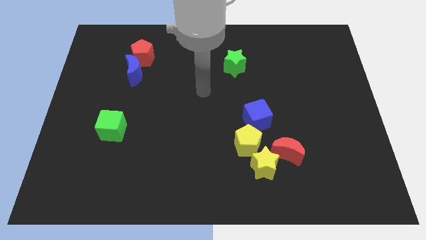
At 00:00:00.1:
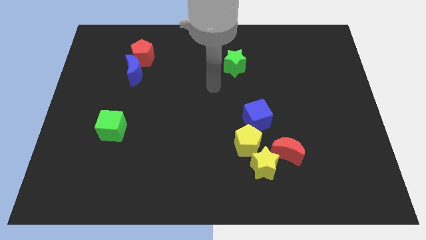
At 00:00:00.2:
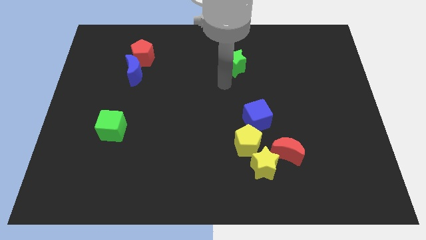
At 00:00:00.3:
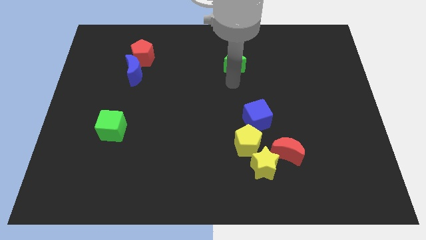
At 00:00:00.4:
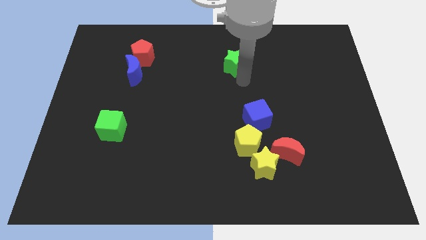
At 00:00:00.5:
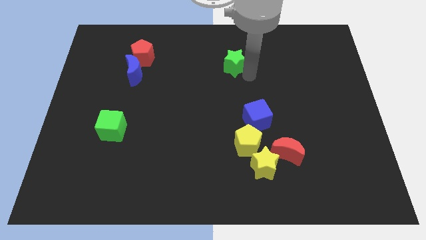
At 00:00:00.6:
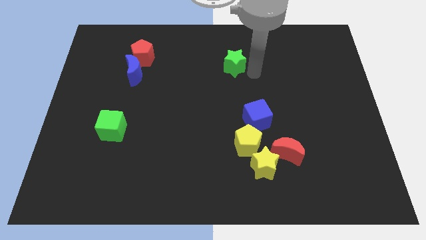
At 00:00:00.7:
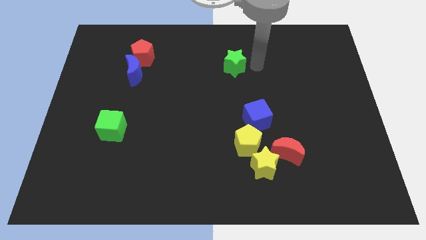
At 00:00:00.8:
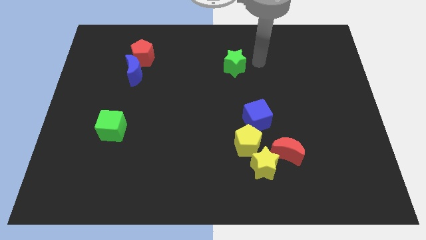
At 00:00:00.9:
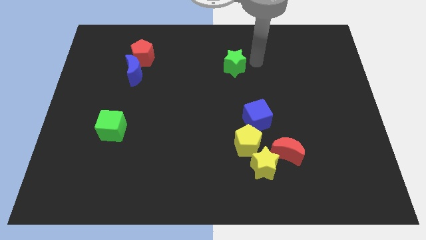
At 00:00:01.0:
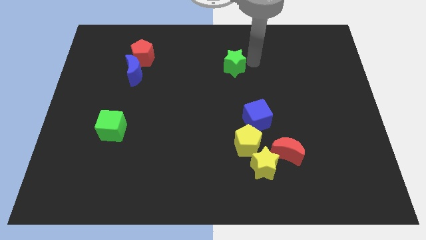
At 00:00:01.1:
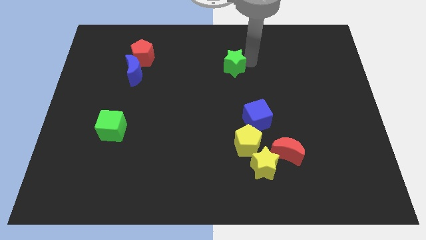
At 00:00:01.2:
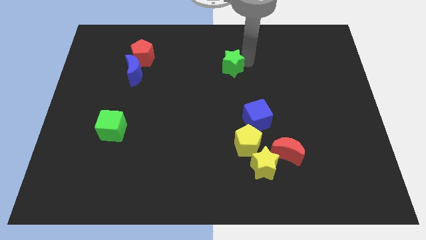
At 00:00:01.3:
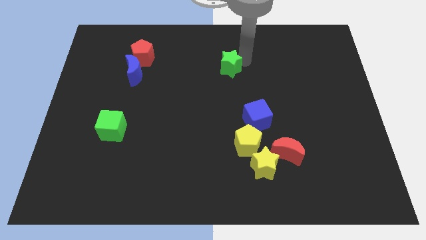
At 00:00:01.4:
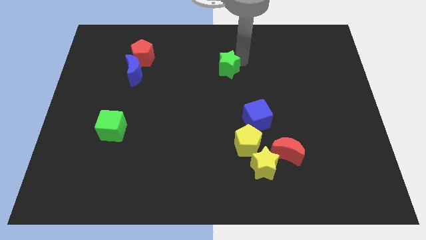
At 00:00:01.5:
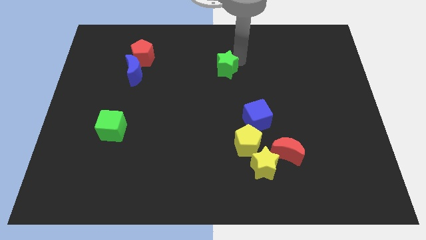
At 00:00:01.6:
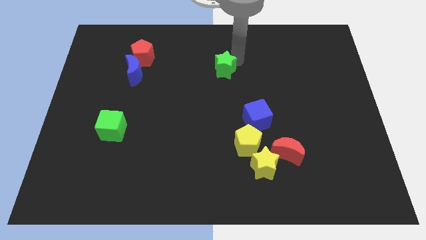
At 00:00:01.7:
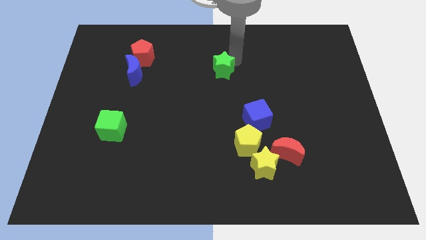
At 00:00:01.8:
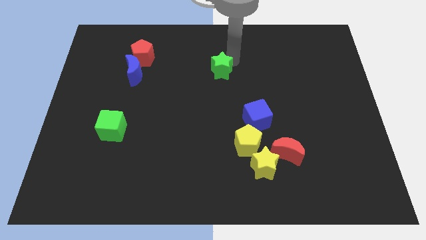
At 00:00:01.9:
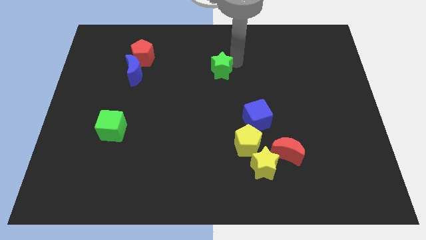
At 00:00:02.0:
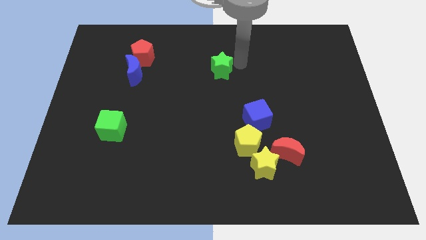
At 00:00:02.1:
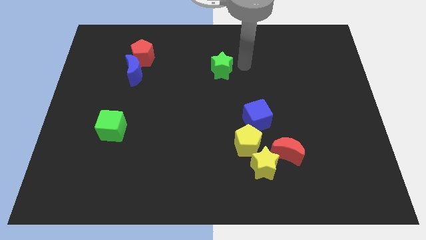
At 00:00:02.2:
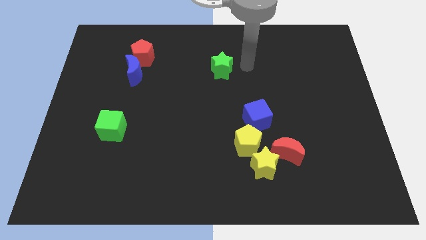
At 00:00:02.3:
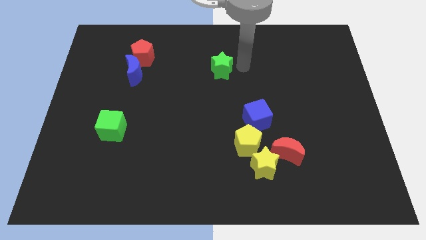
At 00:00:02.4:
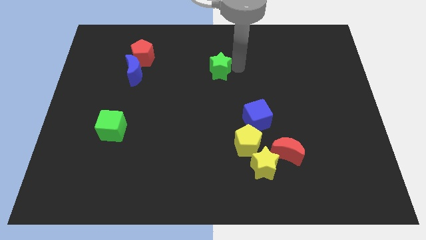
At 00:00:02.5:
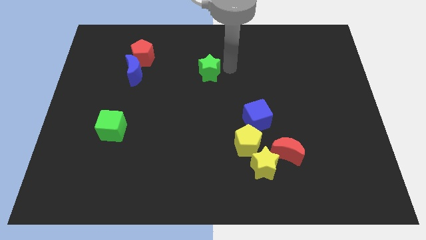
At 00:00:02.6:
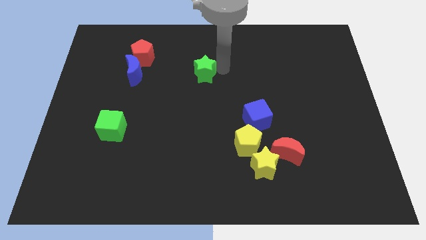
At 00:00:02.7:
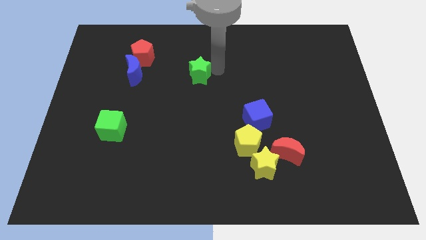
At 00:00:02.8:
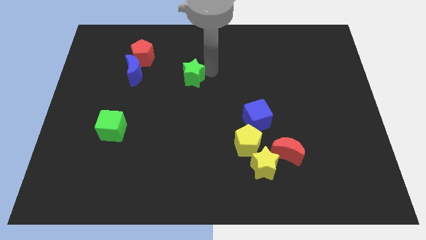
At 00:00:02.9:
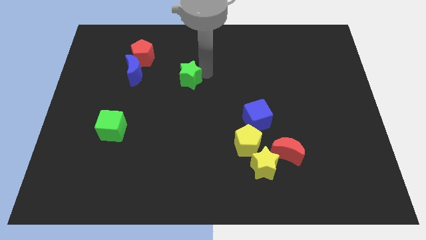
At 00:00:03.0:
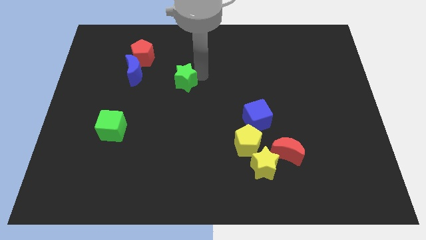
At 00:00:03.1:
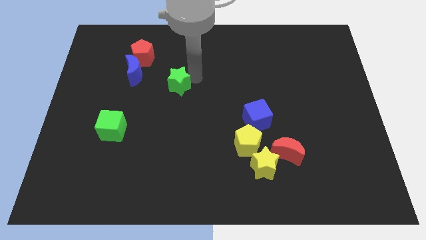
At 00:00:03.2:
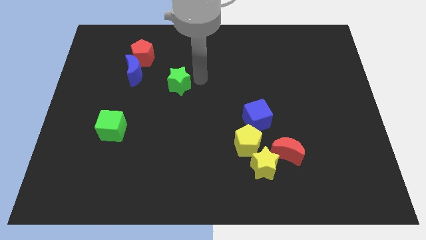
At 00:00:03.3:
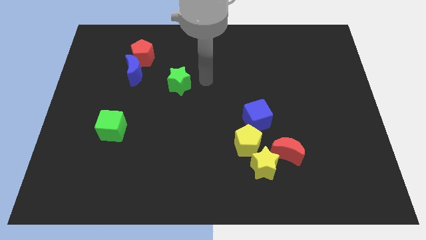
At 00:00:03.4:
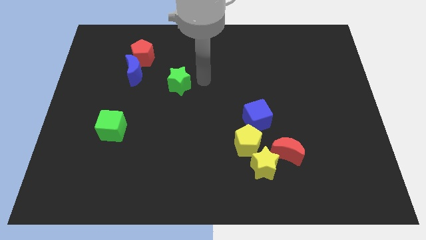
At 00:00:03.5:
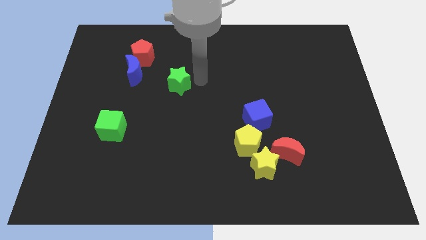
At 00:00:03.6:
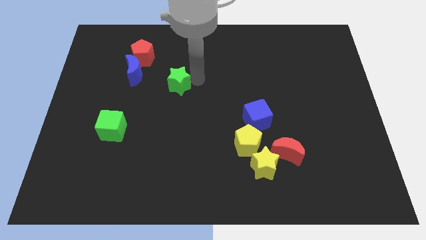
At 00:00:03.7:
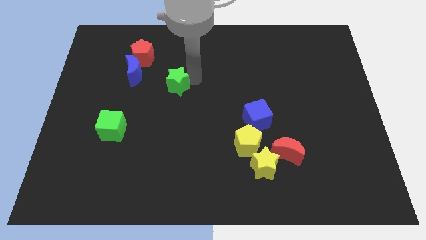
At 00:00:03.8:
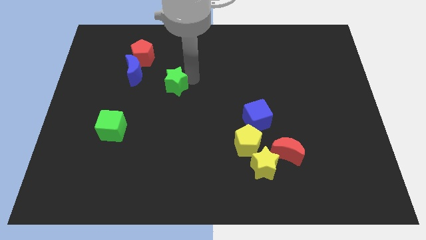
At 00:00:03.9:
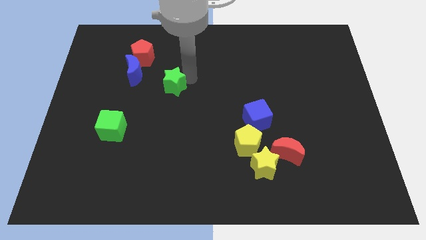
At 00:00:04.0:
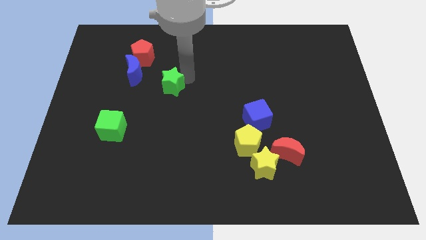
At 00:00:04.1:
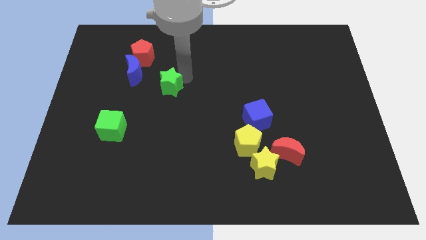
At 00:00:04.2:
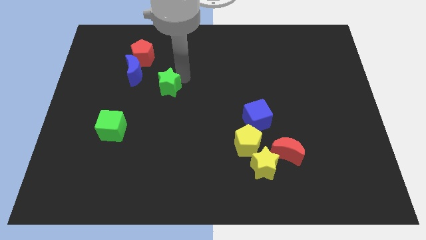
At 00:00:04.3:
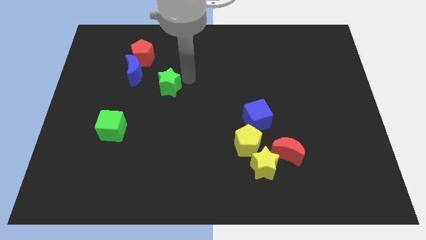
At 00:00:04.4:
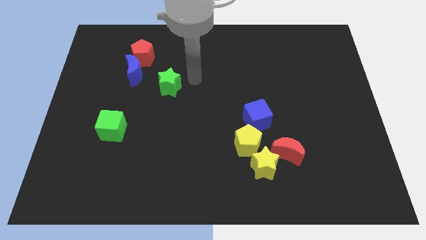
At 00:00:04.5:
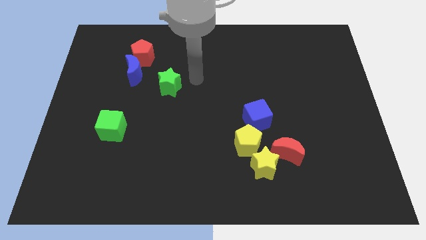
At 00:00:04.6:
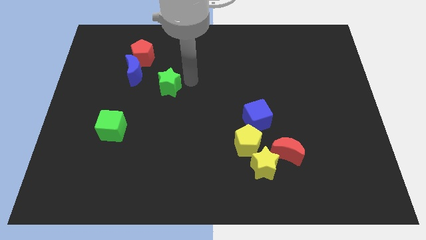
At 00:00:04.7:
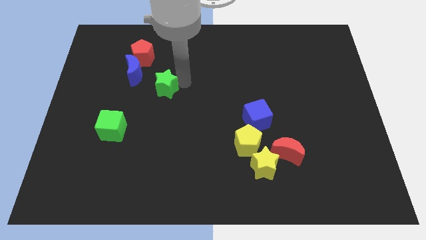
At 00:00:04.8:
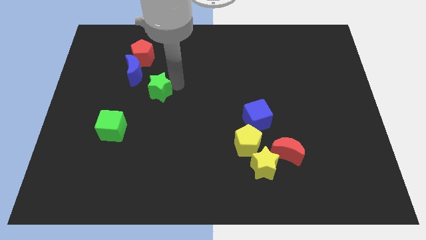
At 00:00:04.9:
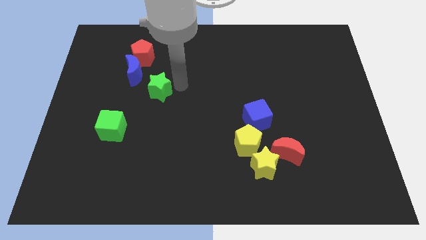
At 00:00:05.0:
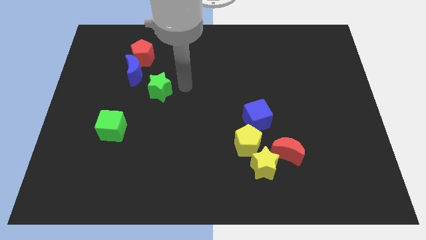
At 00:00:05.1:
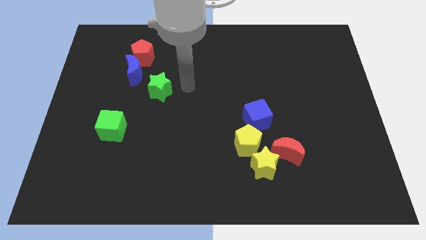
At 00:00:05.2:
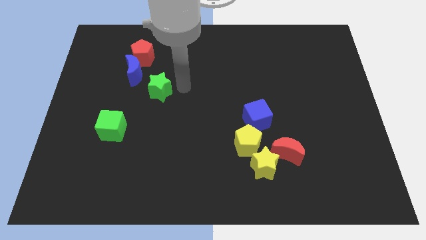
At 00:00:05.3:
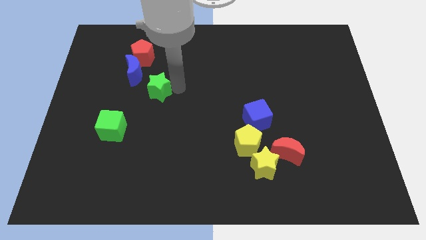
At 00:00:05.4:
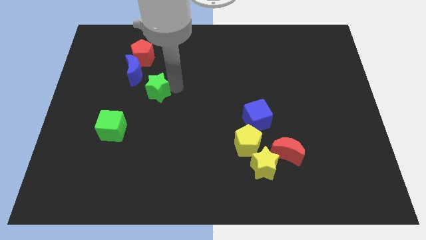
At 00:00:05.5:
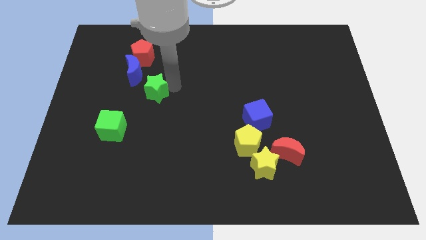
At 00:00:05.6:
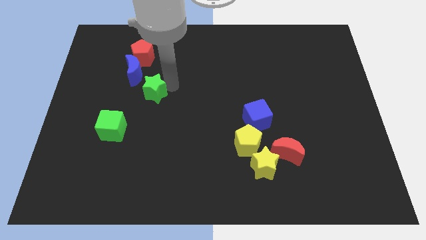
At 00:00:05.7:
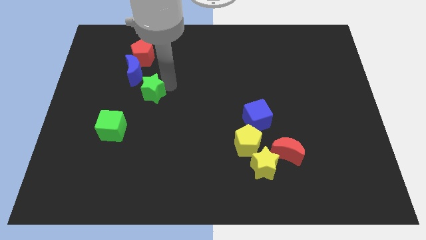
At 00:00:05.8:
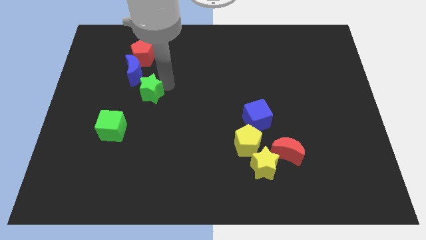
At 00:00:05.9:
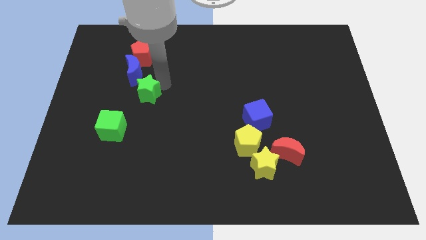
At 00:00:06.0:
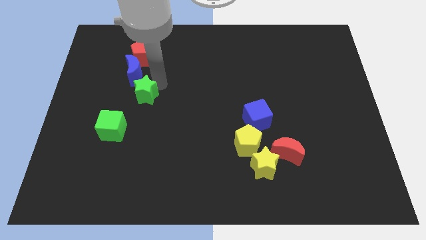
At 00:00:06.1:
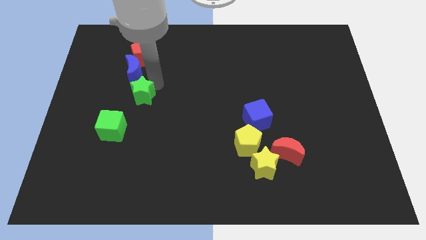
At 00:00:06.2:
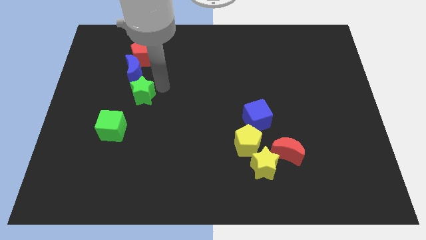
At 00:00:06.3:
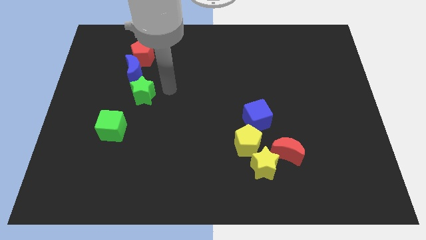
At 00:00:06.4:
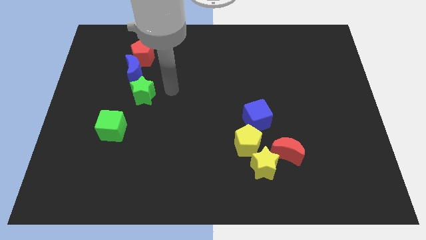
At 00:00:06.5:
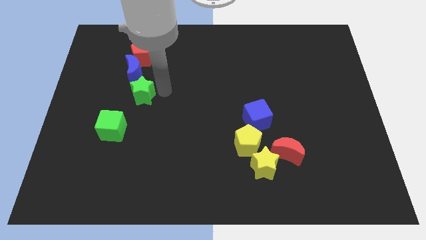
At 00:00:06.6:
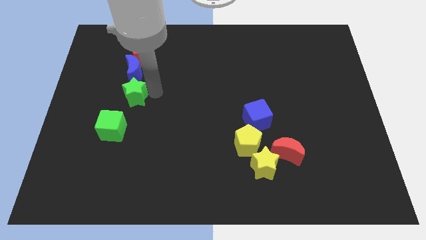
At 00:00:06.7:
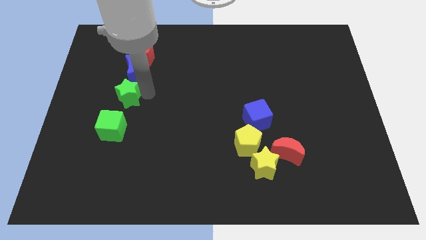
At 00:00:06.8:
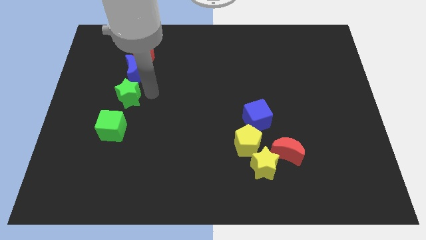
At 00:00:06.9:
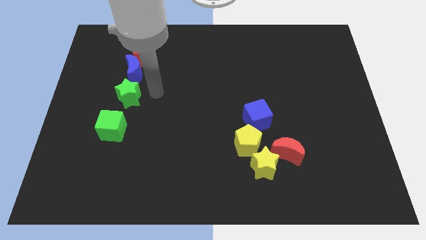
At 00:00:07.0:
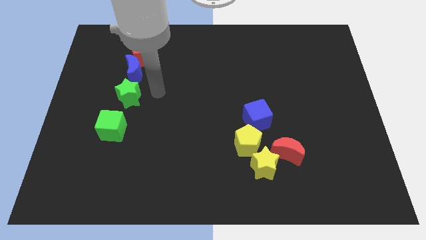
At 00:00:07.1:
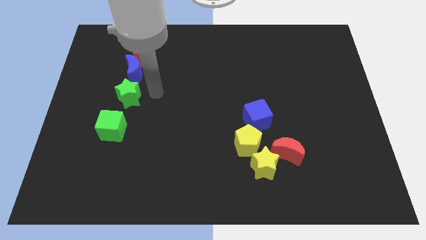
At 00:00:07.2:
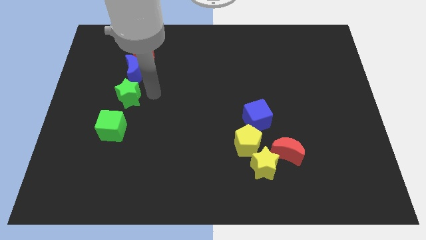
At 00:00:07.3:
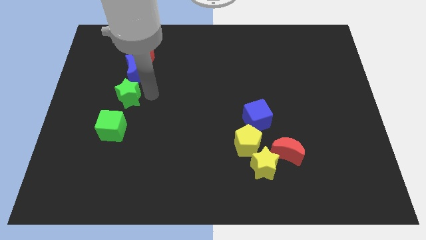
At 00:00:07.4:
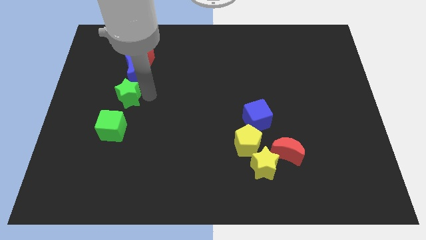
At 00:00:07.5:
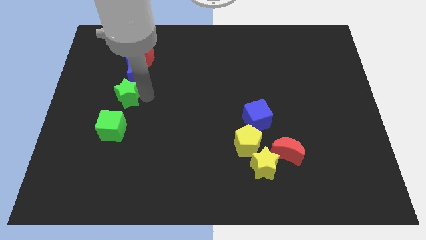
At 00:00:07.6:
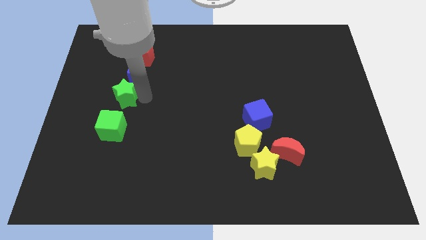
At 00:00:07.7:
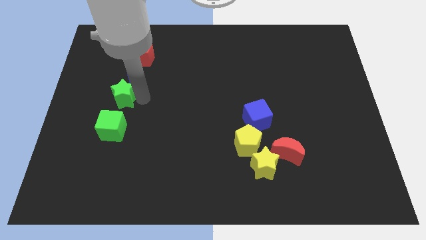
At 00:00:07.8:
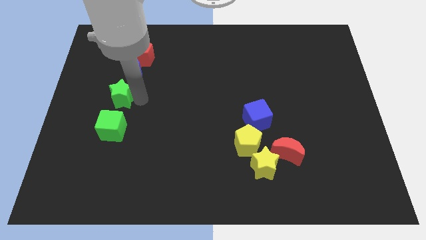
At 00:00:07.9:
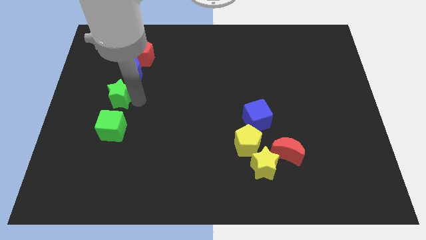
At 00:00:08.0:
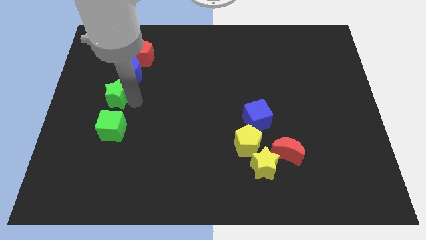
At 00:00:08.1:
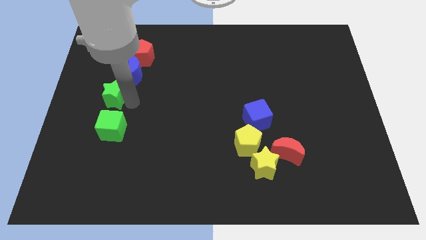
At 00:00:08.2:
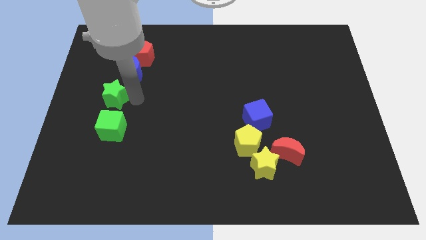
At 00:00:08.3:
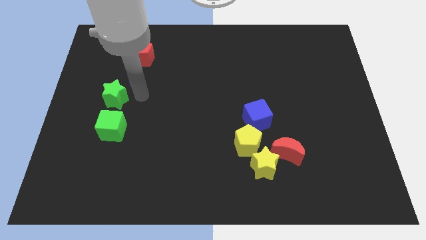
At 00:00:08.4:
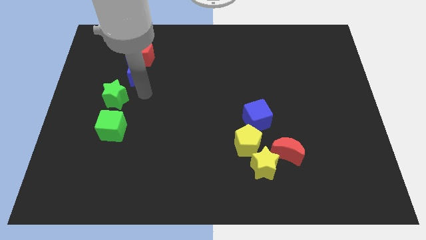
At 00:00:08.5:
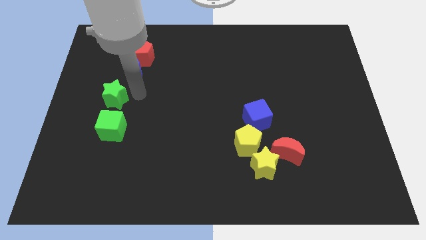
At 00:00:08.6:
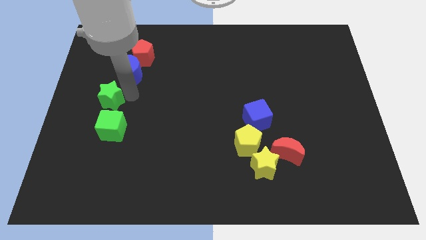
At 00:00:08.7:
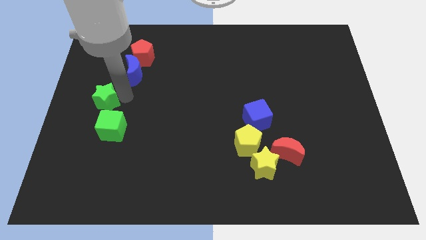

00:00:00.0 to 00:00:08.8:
push the green star to the left side of the board
